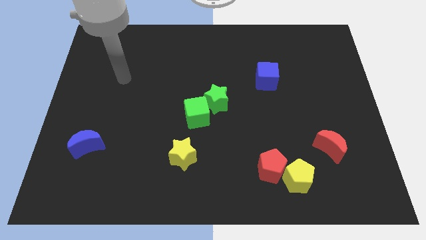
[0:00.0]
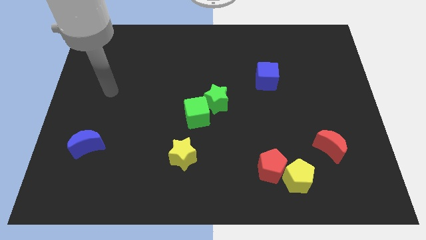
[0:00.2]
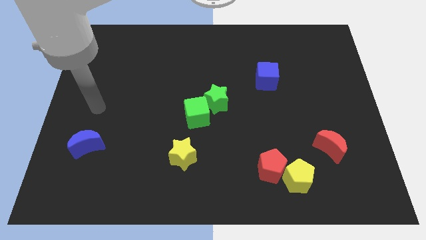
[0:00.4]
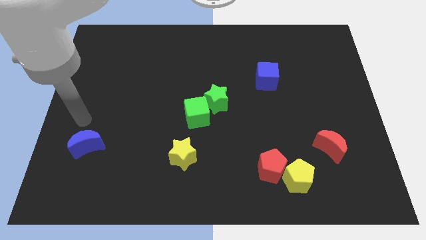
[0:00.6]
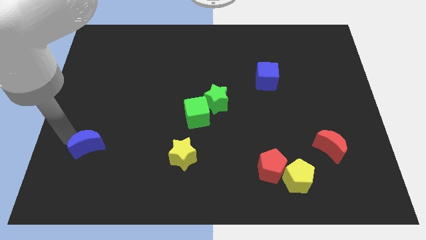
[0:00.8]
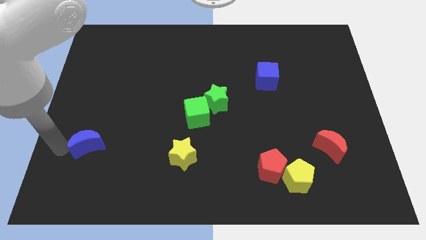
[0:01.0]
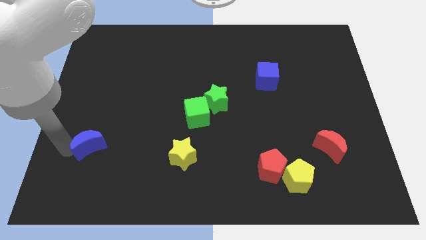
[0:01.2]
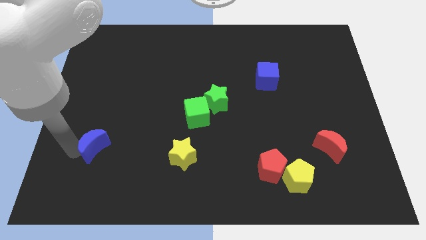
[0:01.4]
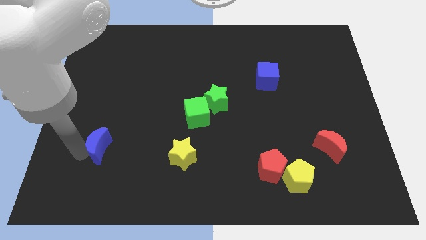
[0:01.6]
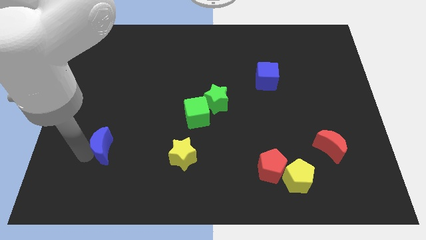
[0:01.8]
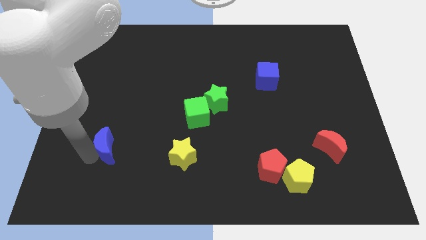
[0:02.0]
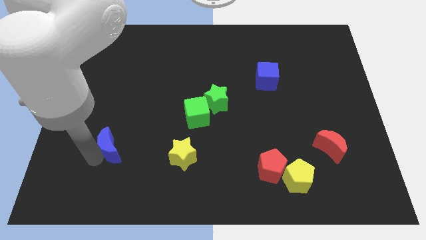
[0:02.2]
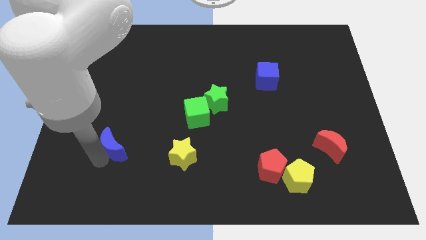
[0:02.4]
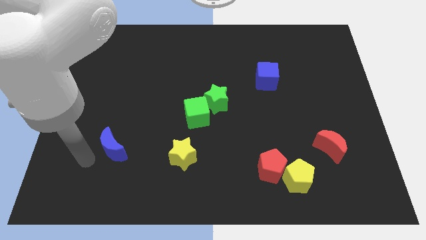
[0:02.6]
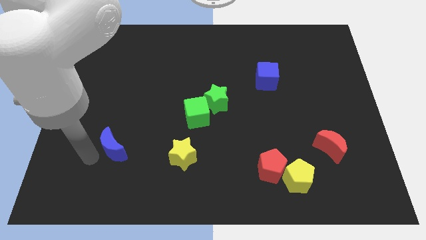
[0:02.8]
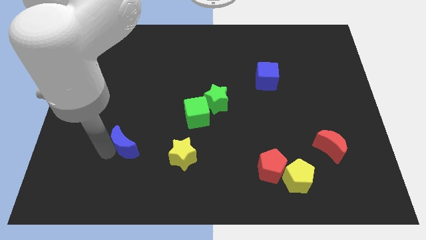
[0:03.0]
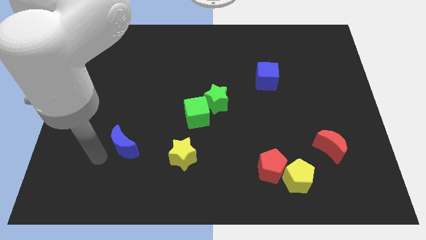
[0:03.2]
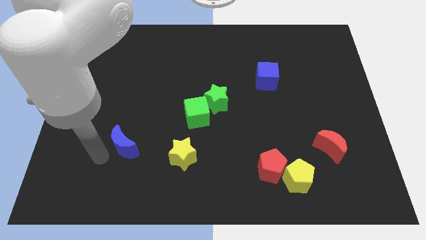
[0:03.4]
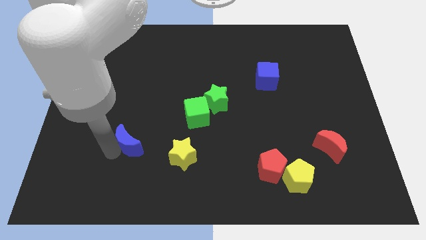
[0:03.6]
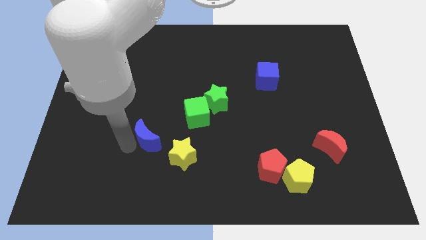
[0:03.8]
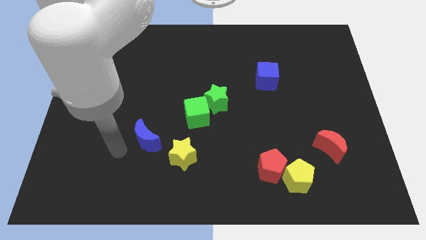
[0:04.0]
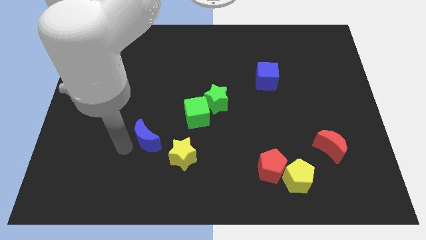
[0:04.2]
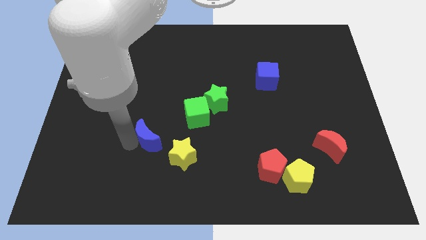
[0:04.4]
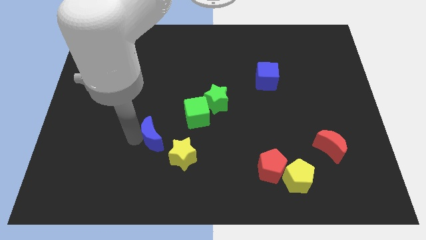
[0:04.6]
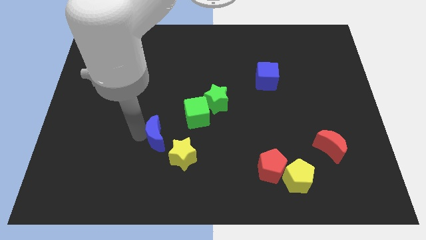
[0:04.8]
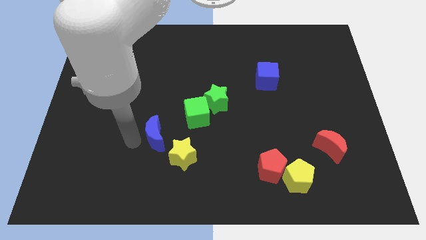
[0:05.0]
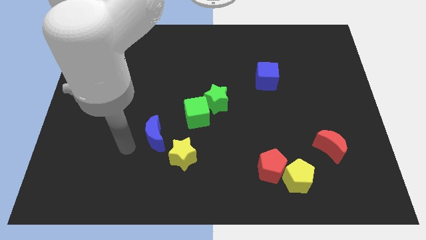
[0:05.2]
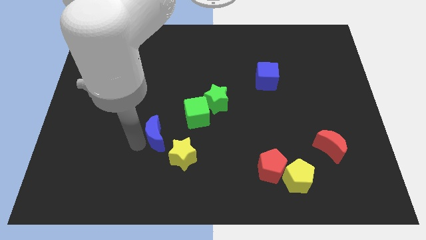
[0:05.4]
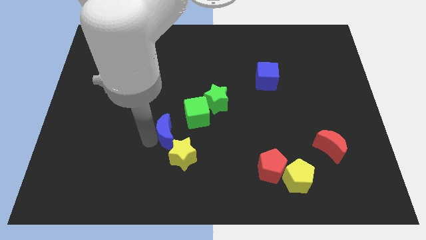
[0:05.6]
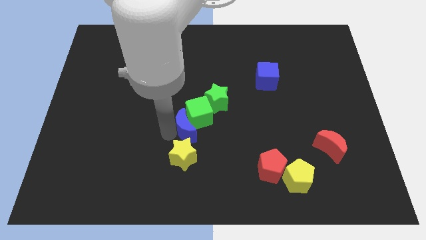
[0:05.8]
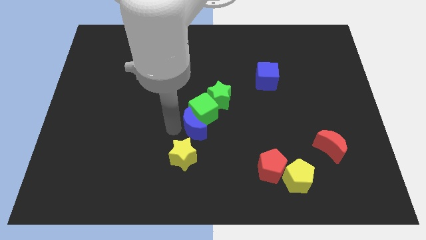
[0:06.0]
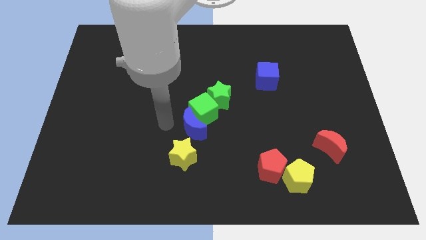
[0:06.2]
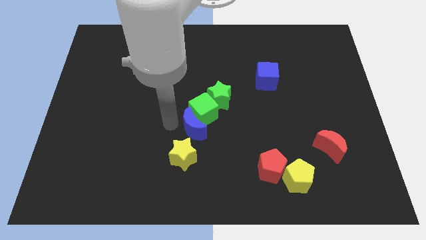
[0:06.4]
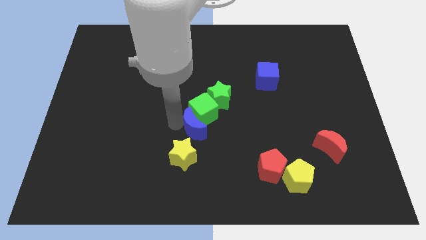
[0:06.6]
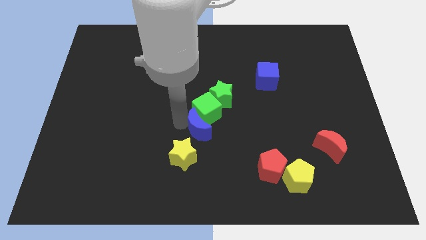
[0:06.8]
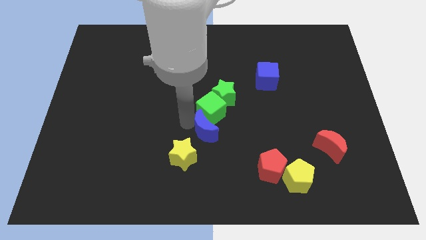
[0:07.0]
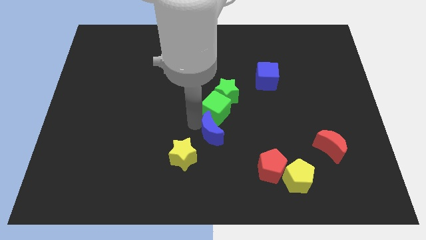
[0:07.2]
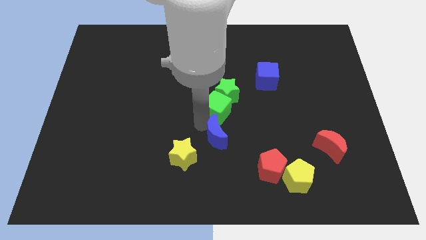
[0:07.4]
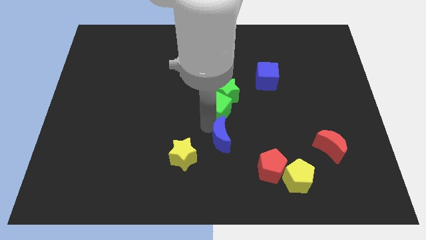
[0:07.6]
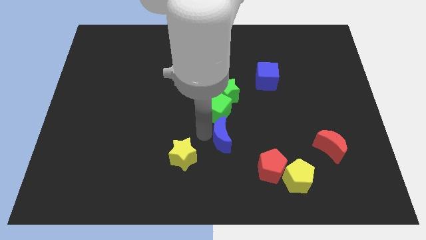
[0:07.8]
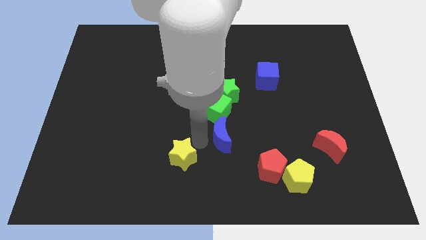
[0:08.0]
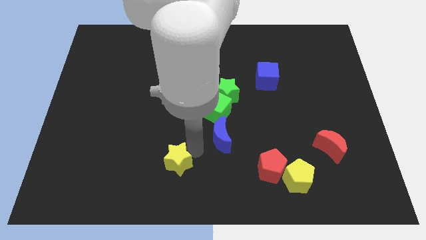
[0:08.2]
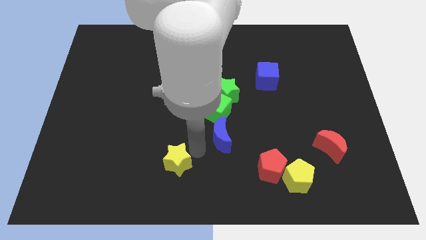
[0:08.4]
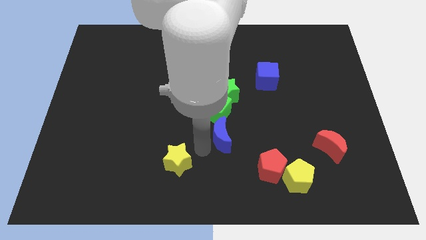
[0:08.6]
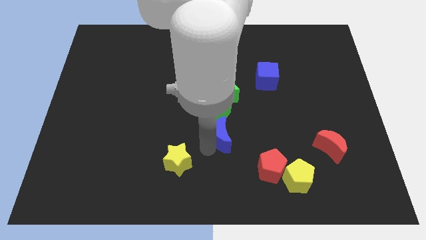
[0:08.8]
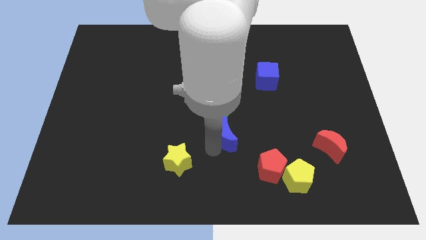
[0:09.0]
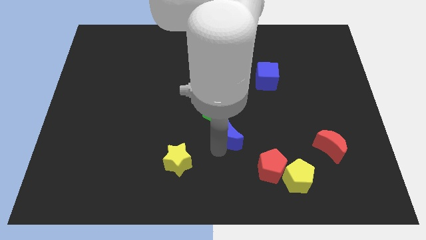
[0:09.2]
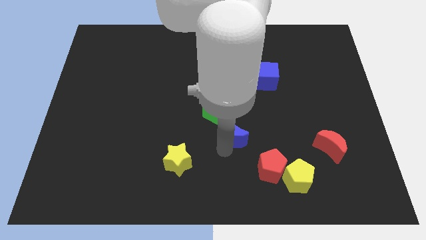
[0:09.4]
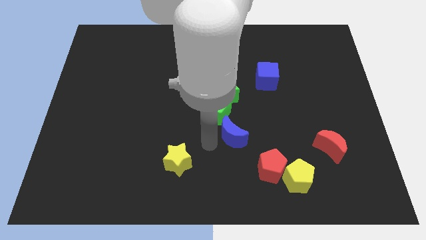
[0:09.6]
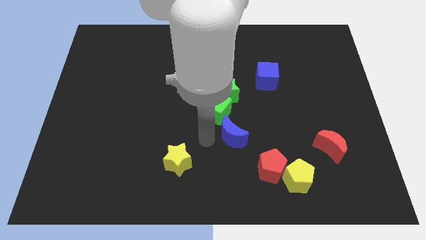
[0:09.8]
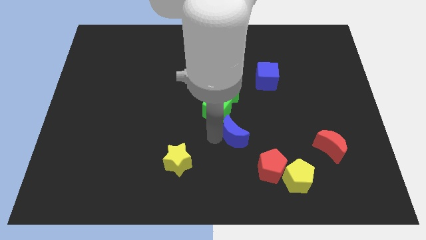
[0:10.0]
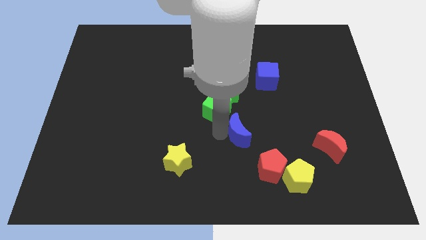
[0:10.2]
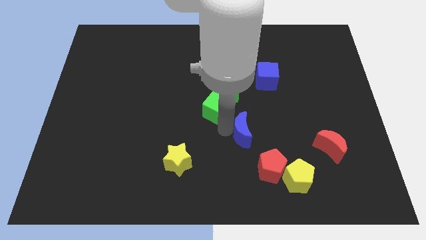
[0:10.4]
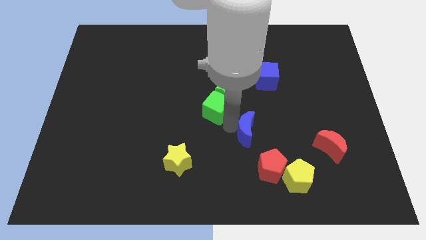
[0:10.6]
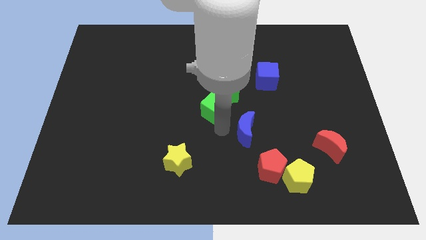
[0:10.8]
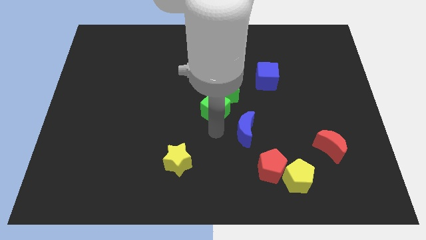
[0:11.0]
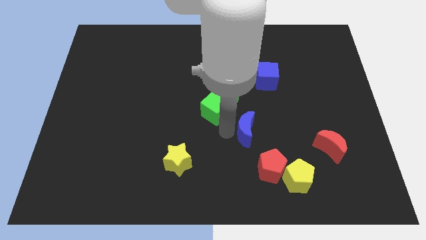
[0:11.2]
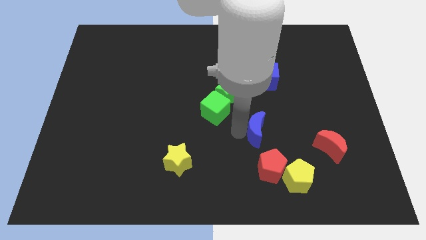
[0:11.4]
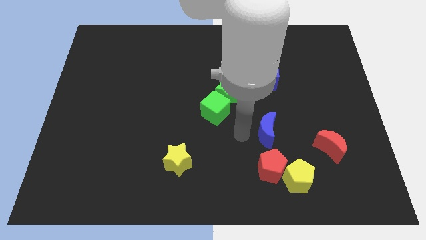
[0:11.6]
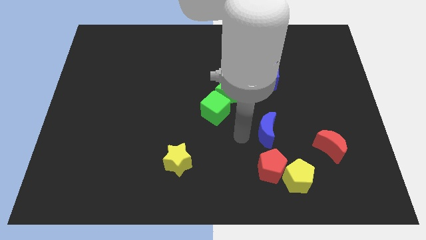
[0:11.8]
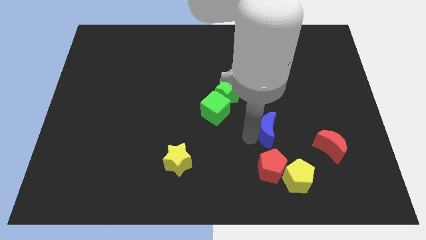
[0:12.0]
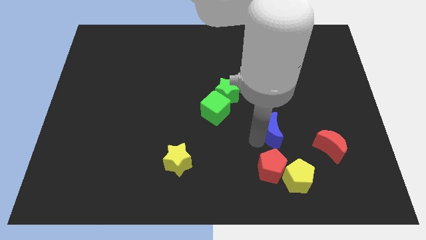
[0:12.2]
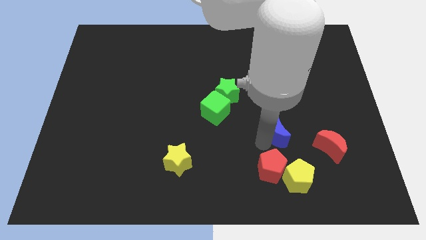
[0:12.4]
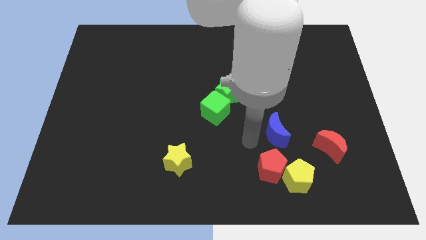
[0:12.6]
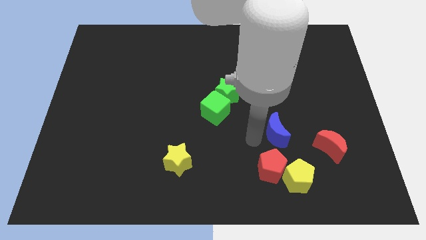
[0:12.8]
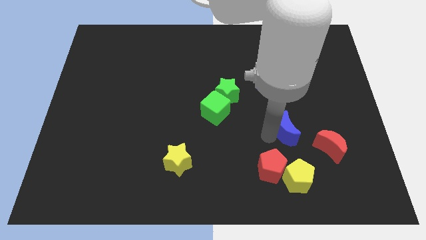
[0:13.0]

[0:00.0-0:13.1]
put the blue moon to the top left side of the red moon

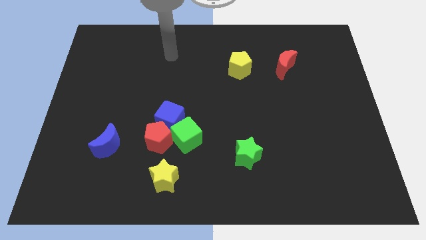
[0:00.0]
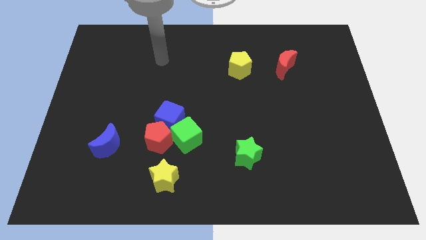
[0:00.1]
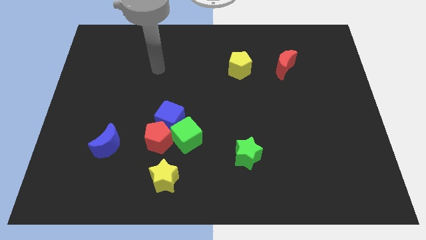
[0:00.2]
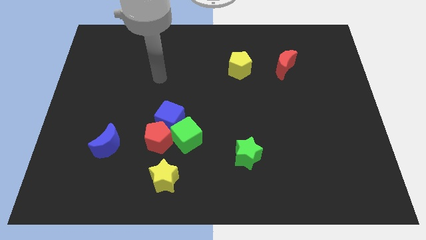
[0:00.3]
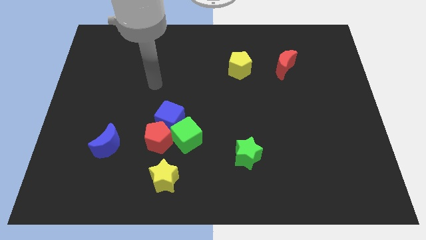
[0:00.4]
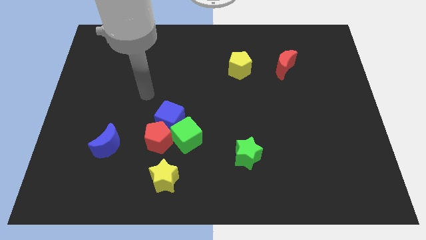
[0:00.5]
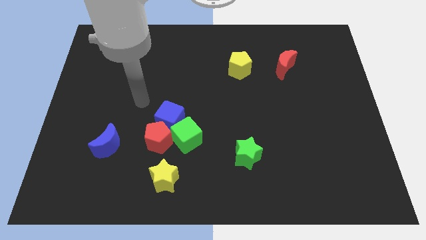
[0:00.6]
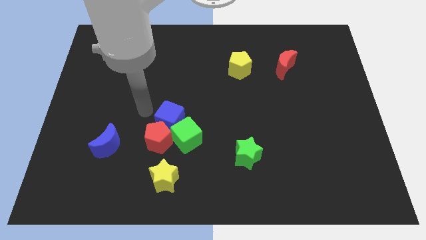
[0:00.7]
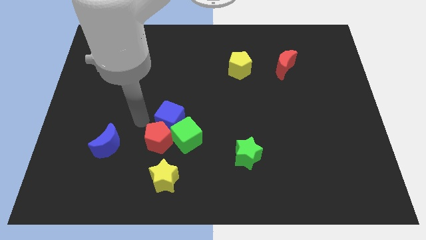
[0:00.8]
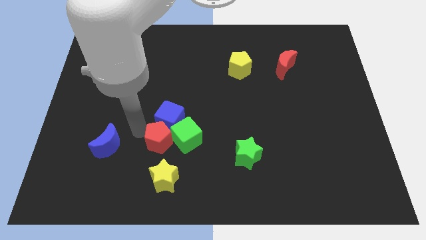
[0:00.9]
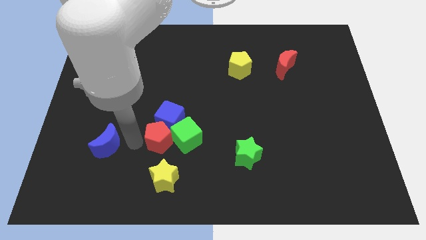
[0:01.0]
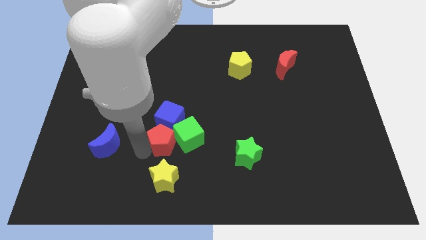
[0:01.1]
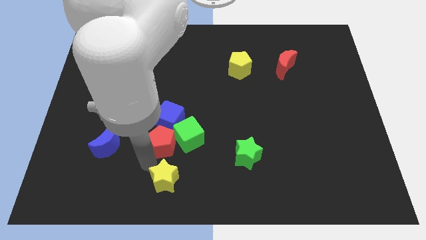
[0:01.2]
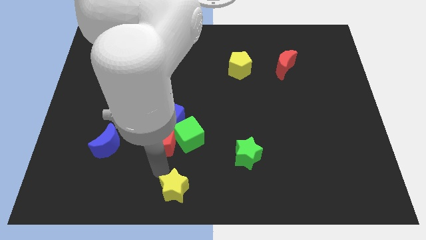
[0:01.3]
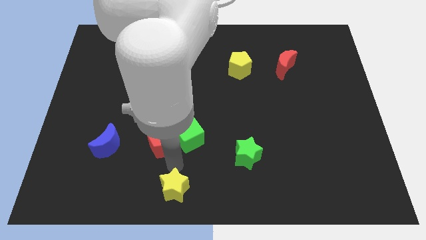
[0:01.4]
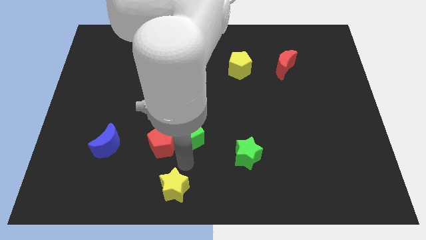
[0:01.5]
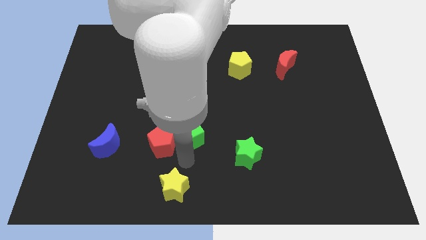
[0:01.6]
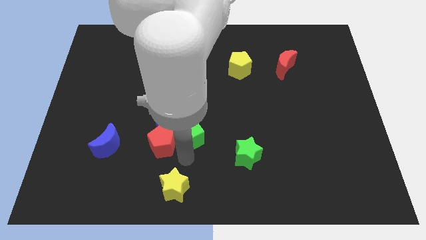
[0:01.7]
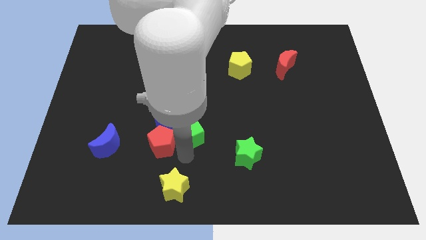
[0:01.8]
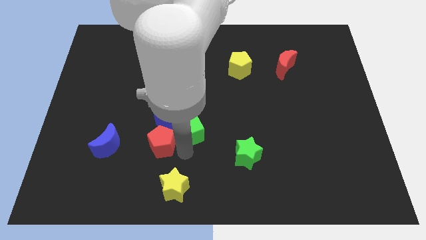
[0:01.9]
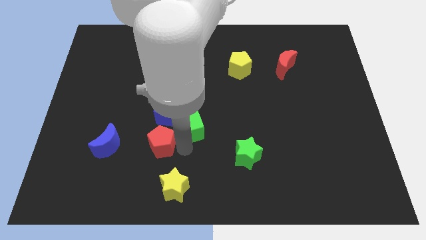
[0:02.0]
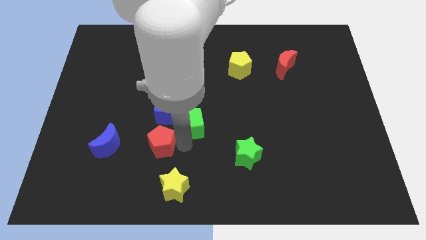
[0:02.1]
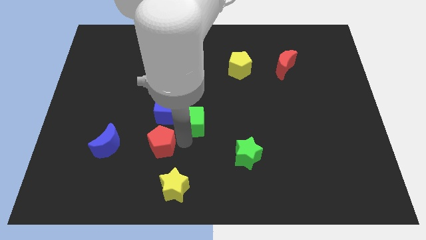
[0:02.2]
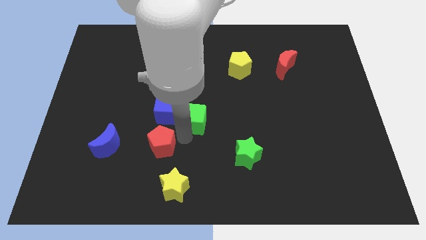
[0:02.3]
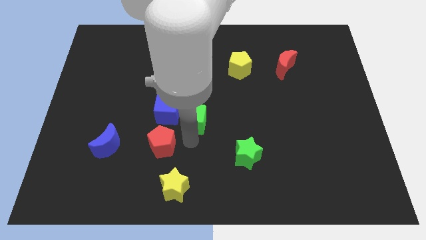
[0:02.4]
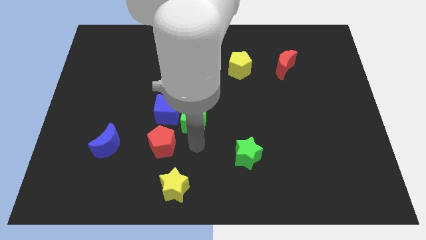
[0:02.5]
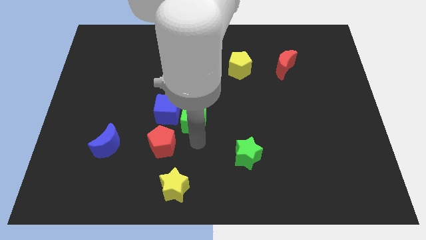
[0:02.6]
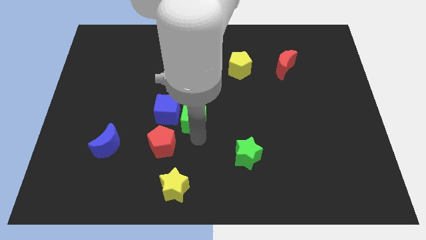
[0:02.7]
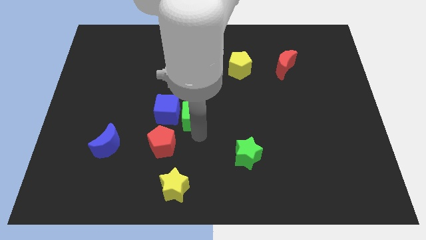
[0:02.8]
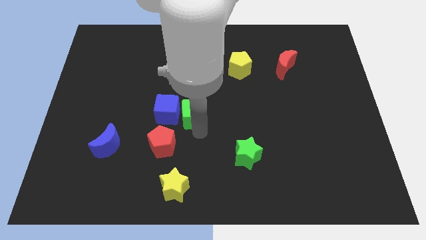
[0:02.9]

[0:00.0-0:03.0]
push the green cube to the top right side of the blue cube
